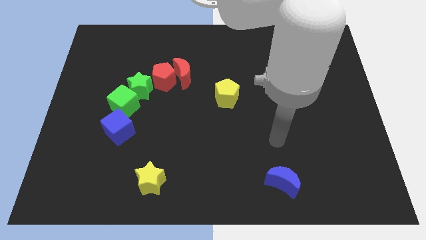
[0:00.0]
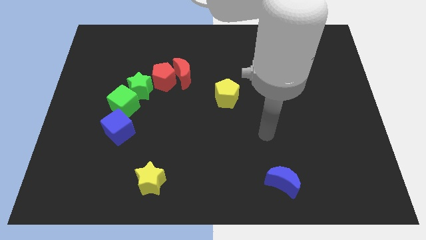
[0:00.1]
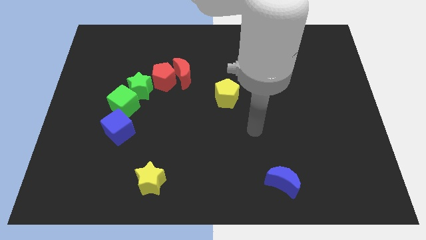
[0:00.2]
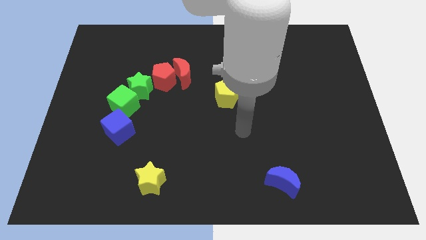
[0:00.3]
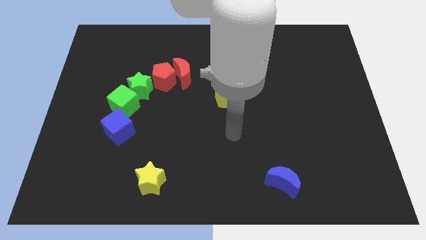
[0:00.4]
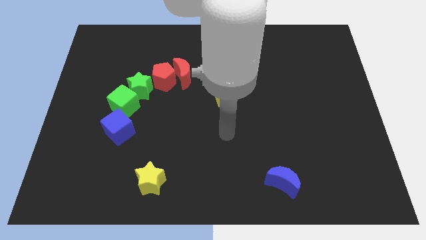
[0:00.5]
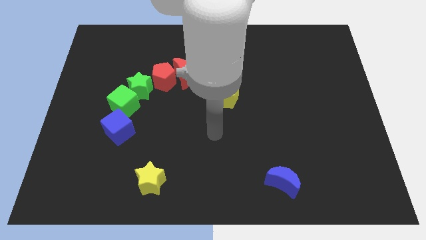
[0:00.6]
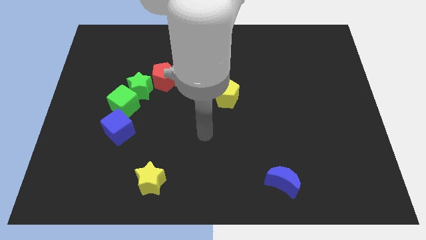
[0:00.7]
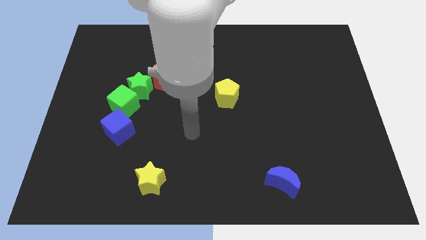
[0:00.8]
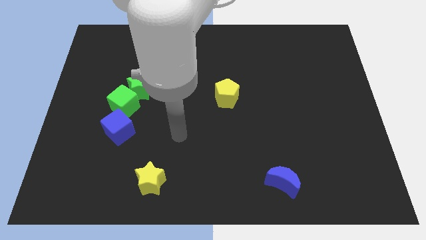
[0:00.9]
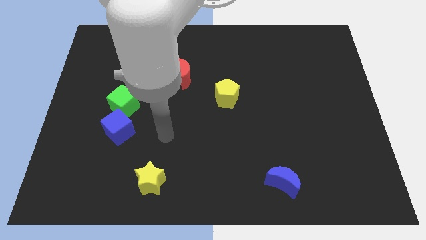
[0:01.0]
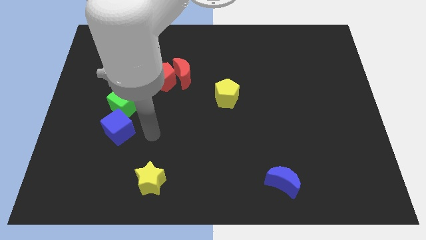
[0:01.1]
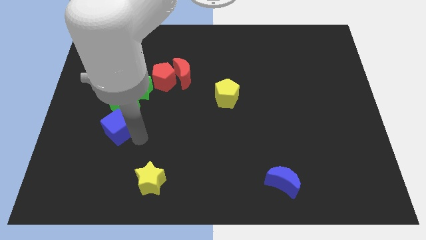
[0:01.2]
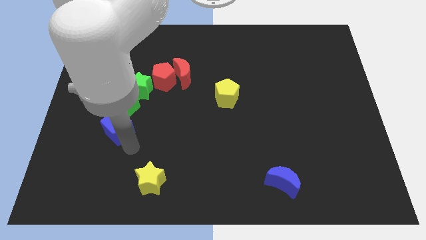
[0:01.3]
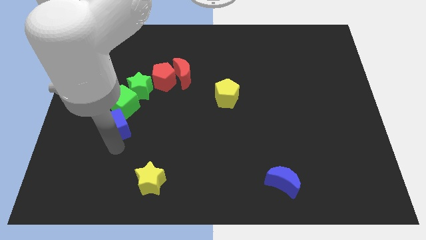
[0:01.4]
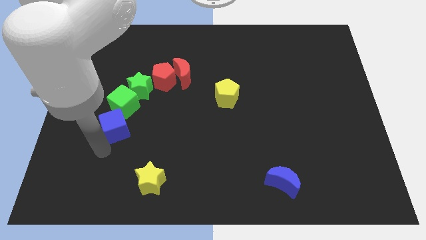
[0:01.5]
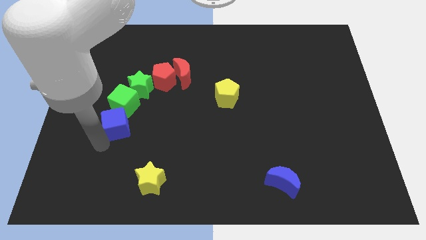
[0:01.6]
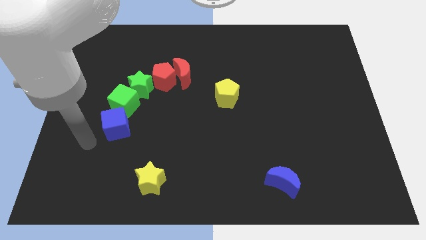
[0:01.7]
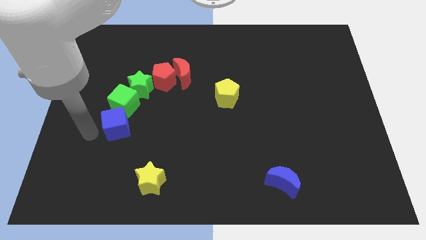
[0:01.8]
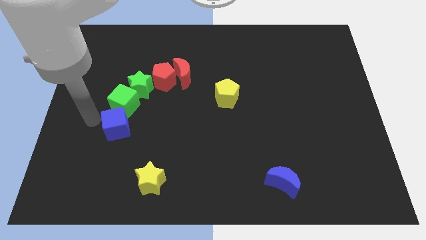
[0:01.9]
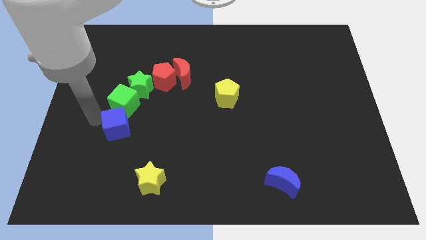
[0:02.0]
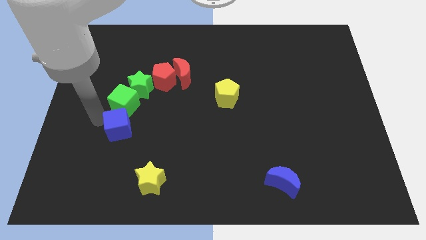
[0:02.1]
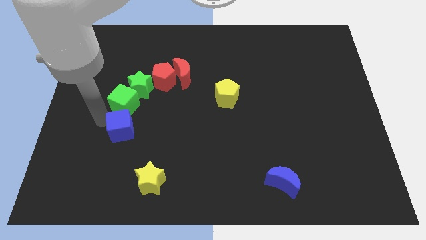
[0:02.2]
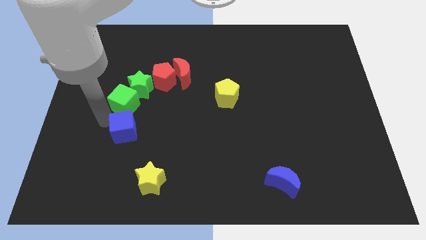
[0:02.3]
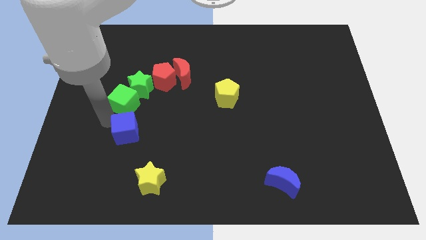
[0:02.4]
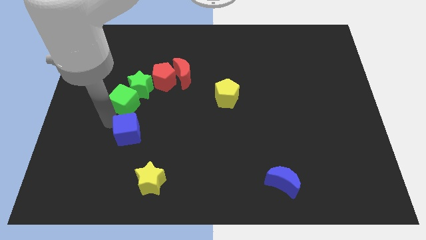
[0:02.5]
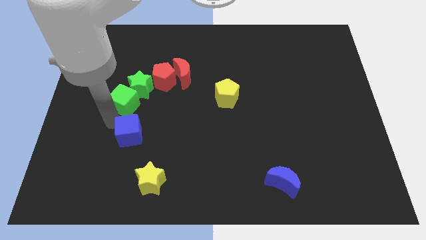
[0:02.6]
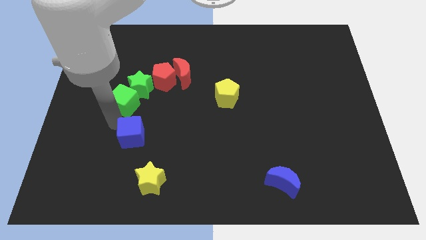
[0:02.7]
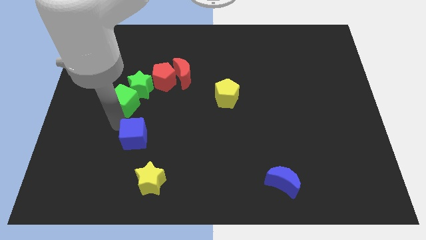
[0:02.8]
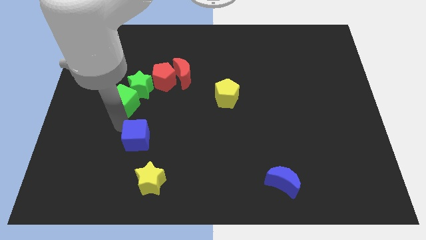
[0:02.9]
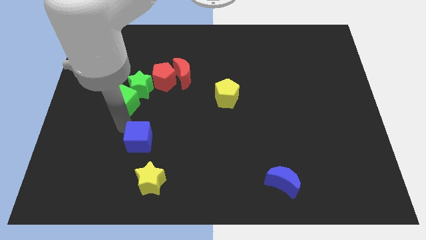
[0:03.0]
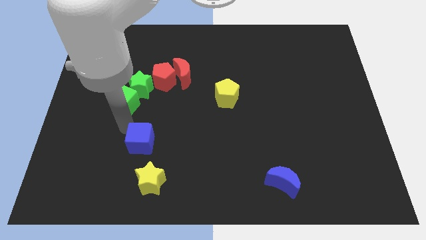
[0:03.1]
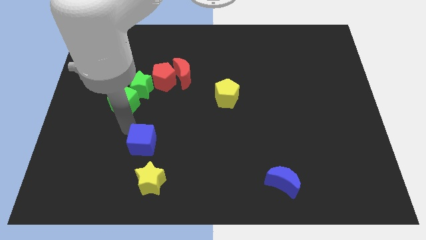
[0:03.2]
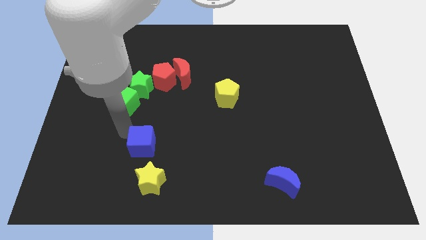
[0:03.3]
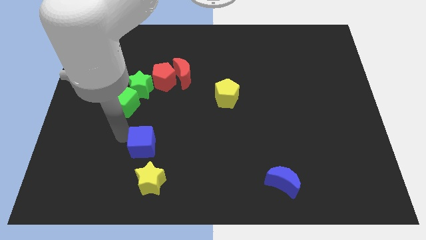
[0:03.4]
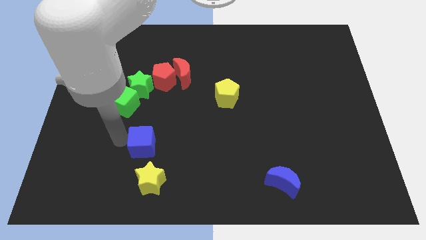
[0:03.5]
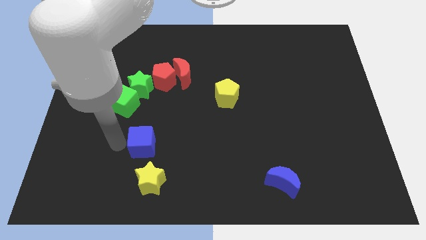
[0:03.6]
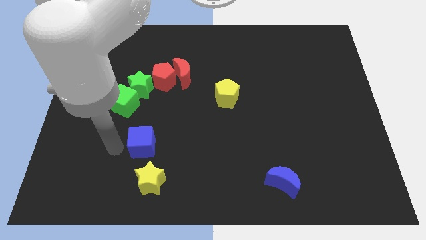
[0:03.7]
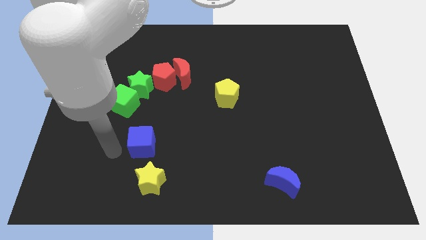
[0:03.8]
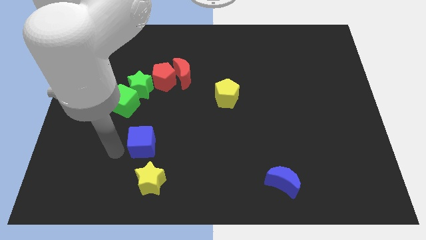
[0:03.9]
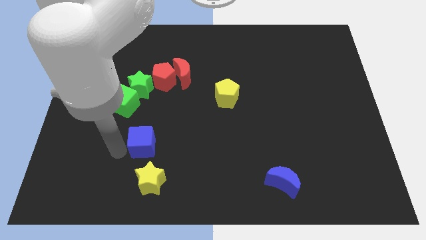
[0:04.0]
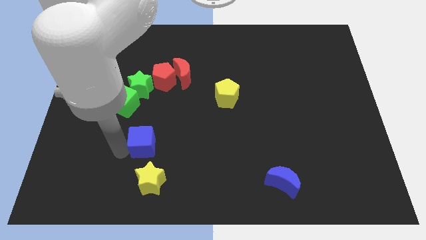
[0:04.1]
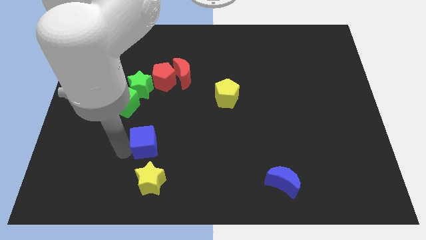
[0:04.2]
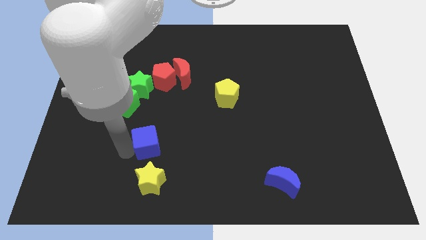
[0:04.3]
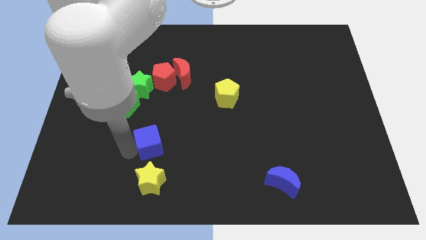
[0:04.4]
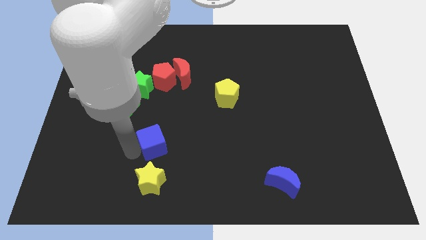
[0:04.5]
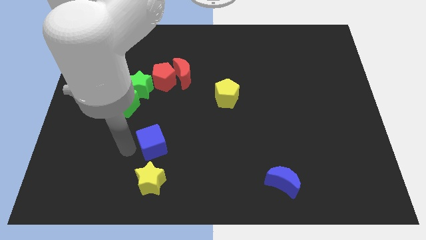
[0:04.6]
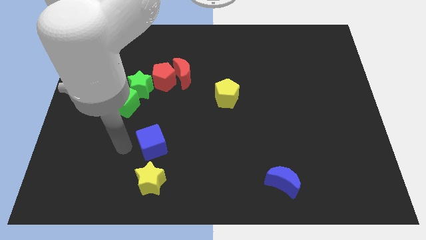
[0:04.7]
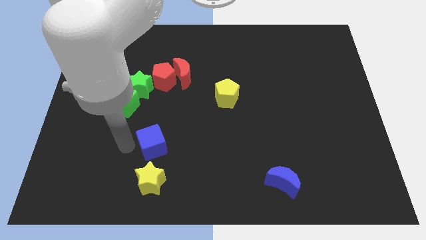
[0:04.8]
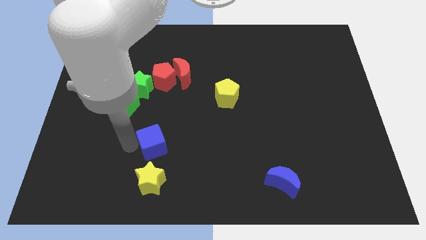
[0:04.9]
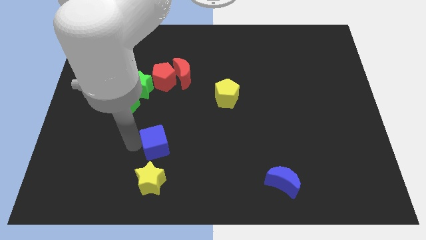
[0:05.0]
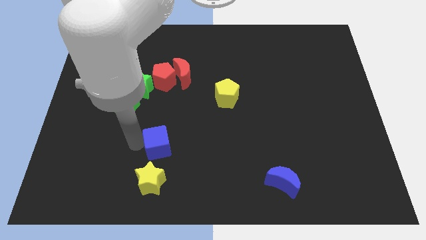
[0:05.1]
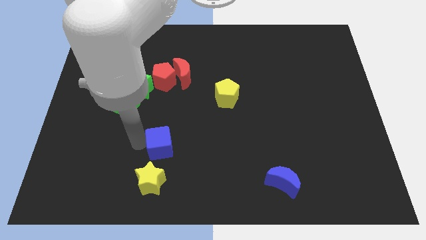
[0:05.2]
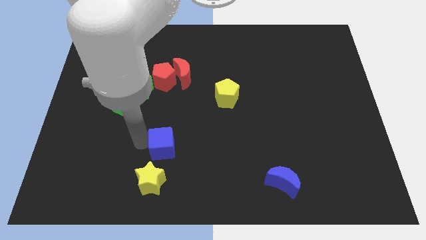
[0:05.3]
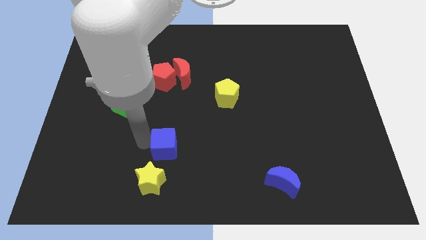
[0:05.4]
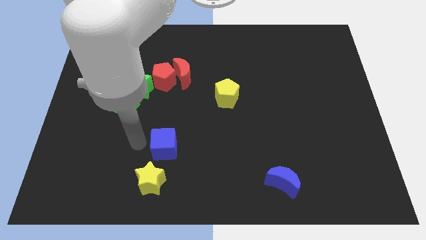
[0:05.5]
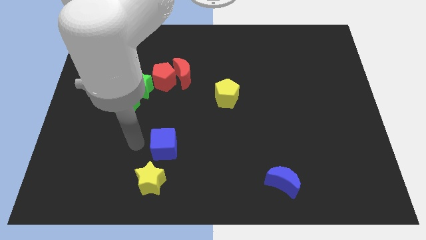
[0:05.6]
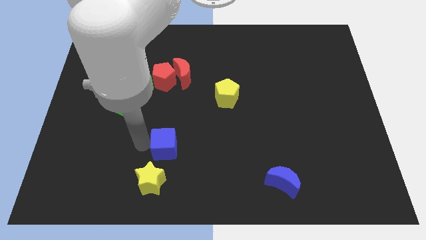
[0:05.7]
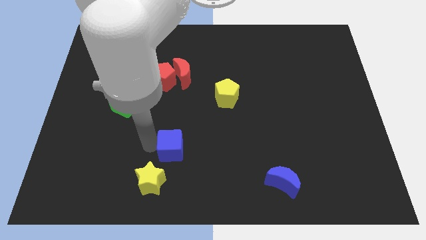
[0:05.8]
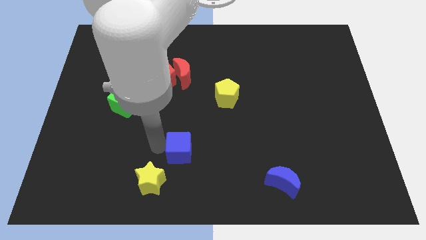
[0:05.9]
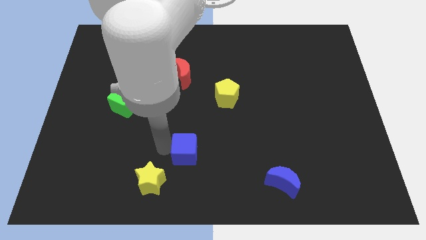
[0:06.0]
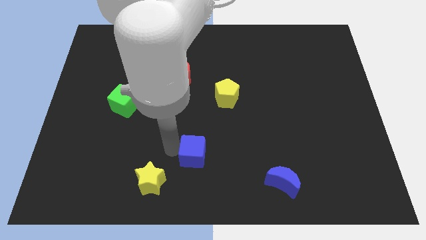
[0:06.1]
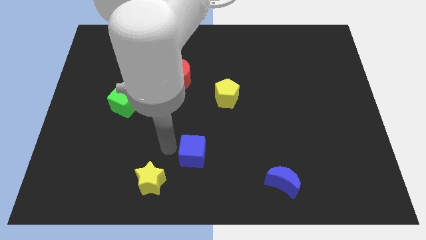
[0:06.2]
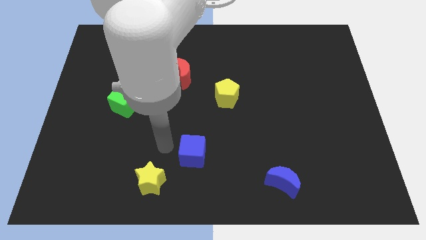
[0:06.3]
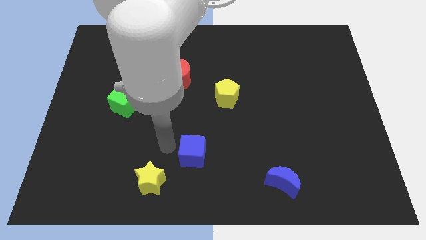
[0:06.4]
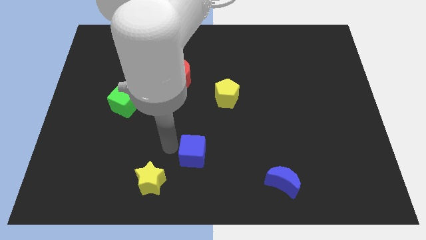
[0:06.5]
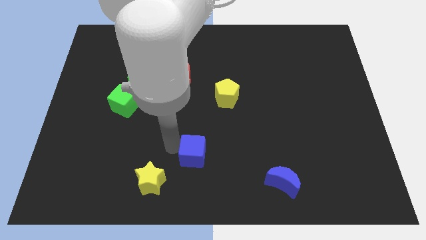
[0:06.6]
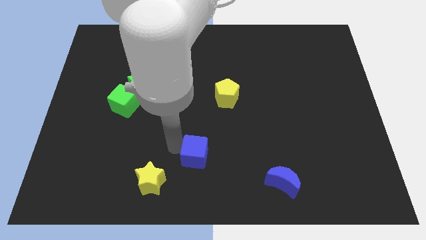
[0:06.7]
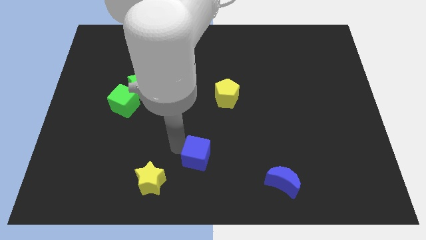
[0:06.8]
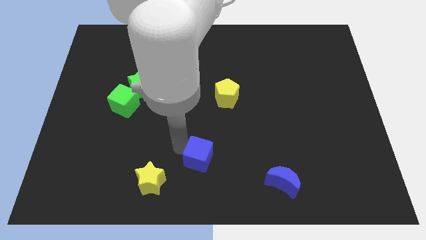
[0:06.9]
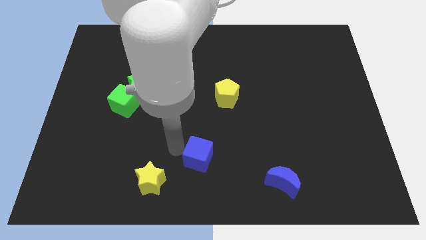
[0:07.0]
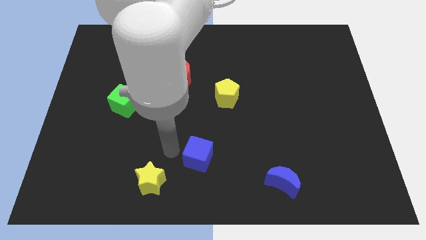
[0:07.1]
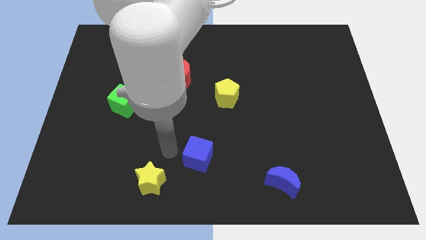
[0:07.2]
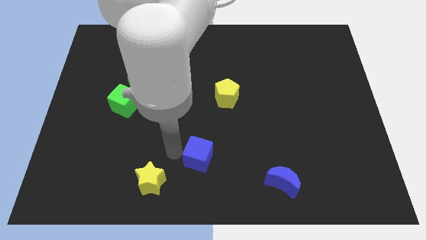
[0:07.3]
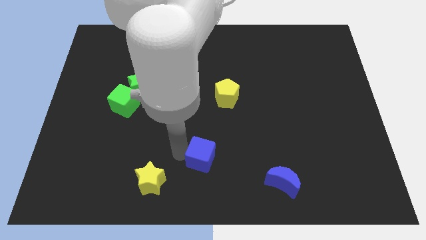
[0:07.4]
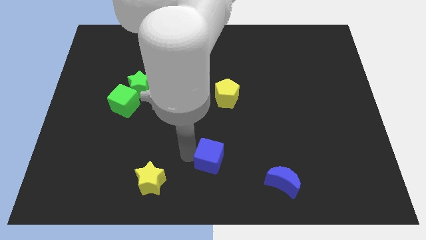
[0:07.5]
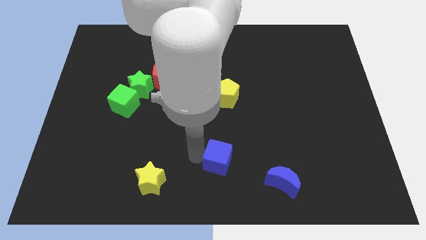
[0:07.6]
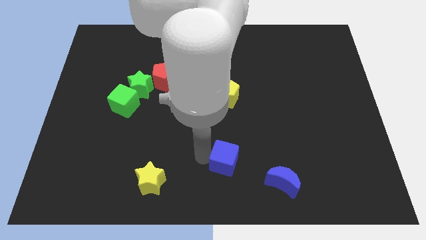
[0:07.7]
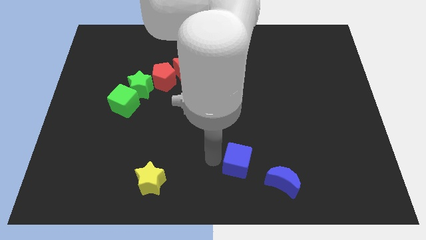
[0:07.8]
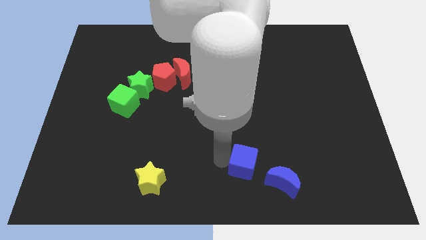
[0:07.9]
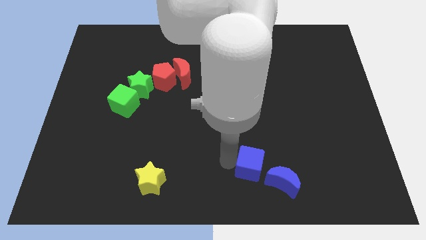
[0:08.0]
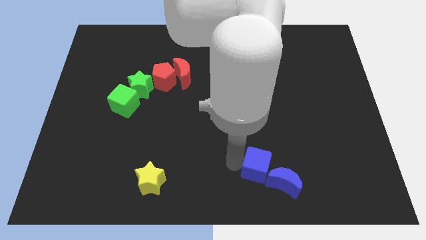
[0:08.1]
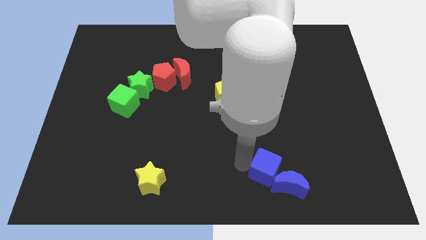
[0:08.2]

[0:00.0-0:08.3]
slide the blue cube towards the blue moon
